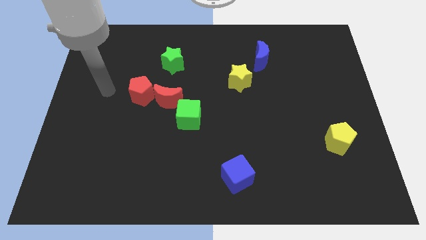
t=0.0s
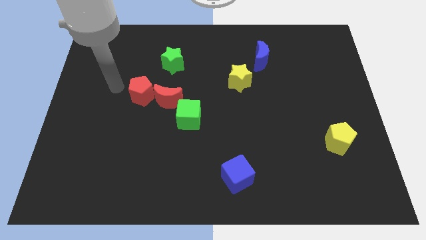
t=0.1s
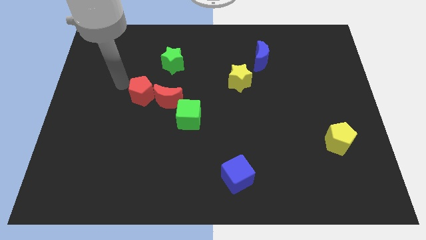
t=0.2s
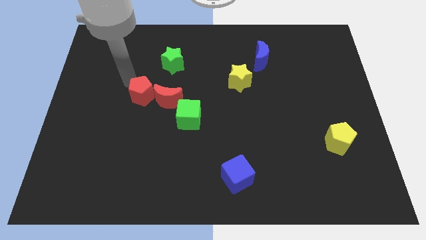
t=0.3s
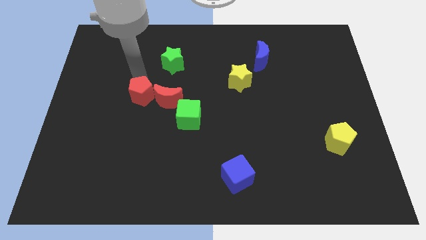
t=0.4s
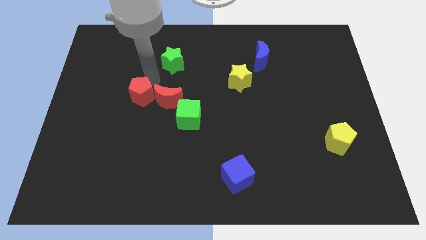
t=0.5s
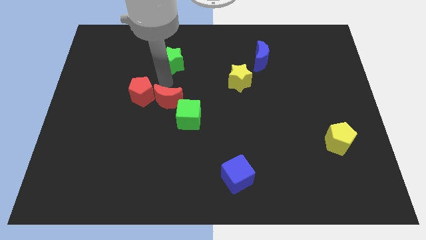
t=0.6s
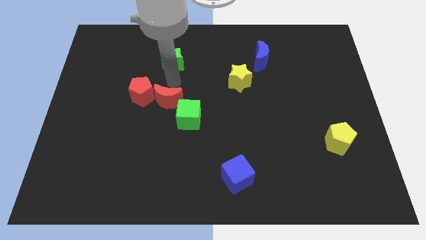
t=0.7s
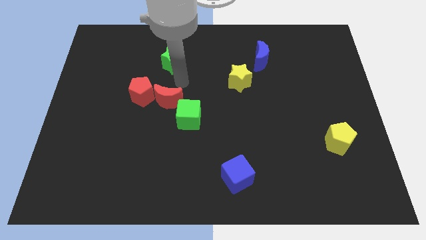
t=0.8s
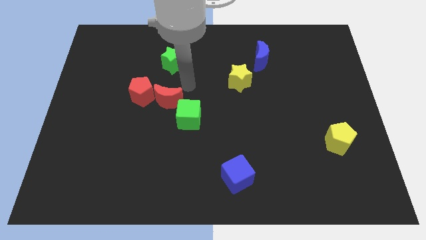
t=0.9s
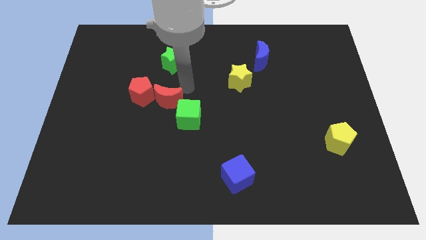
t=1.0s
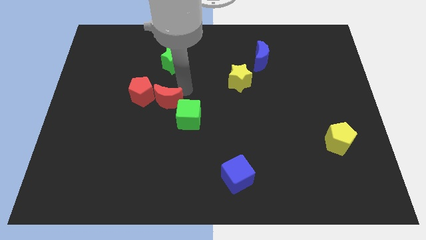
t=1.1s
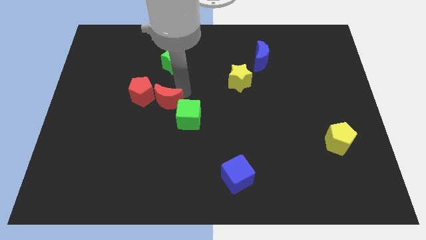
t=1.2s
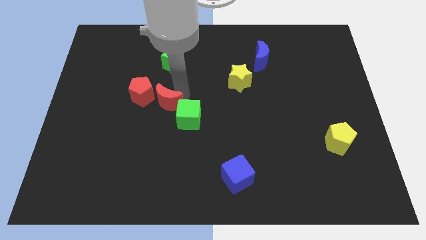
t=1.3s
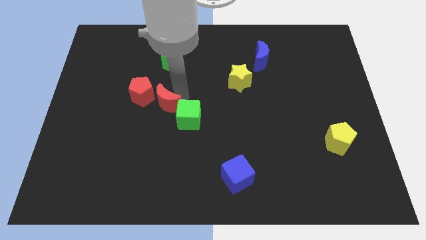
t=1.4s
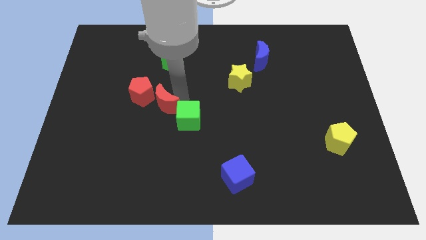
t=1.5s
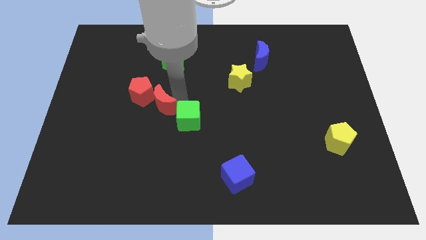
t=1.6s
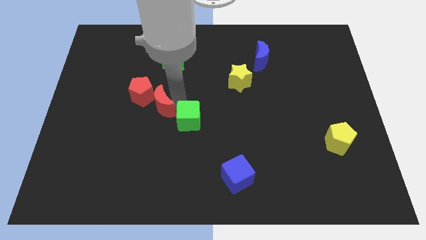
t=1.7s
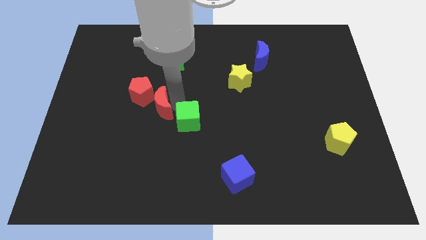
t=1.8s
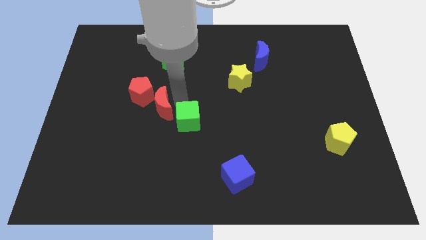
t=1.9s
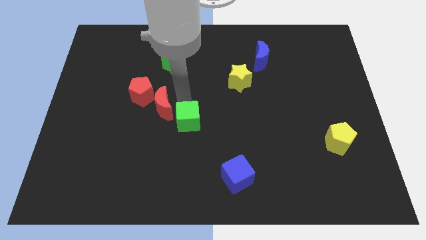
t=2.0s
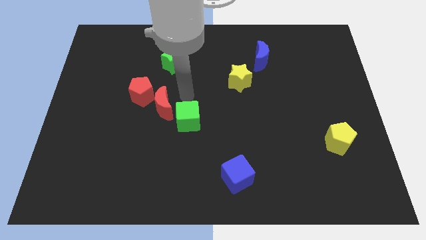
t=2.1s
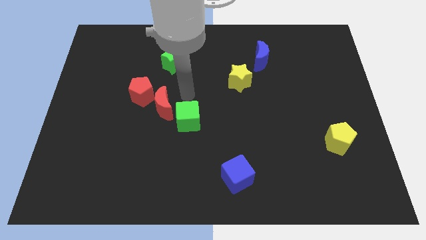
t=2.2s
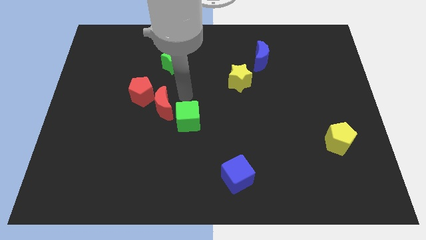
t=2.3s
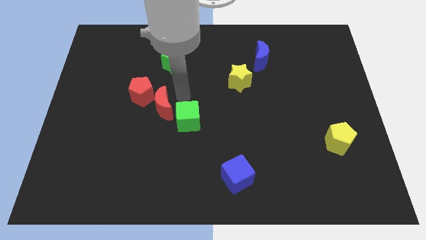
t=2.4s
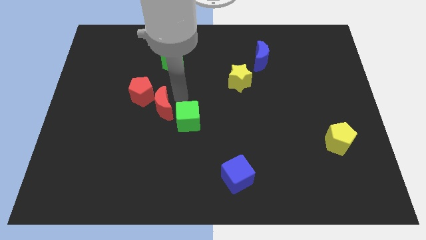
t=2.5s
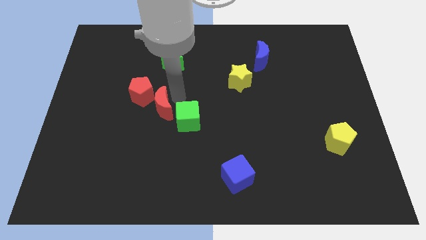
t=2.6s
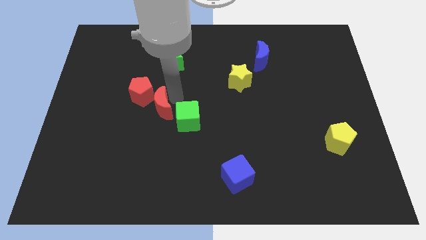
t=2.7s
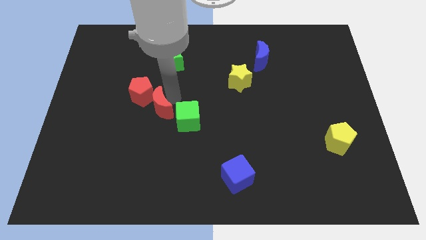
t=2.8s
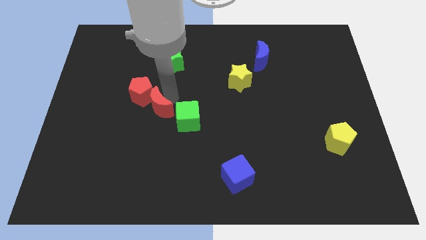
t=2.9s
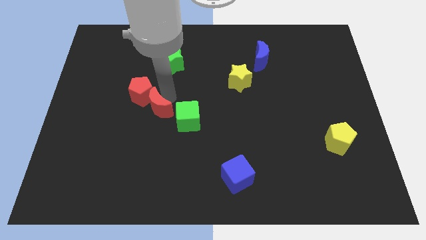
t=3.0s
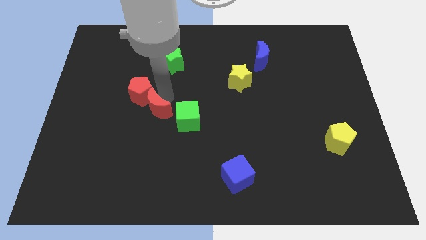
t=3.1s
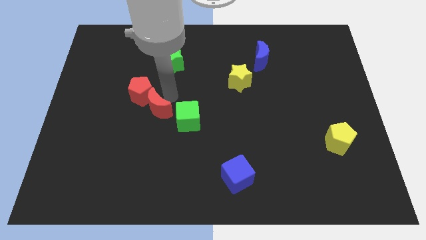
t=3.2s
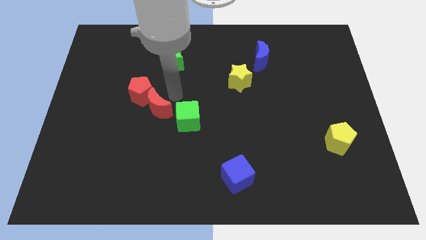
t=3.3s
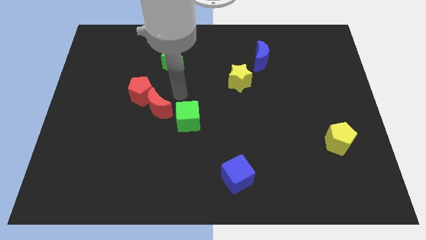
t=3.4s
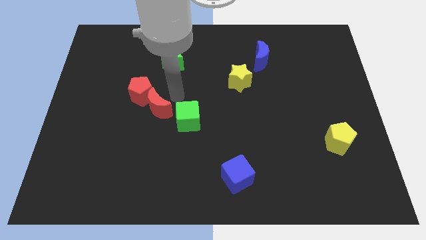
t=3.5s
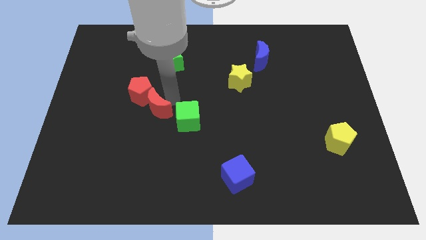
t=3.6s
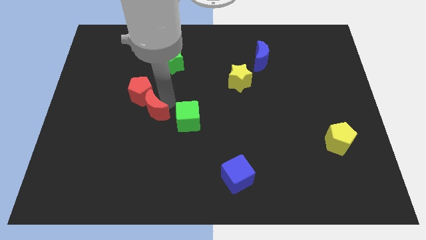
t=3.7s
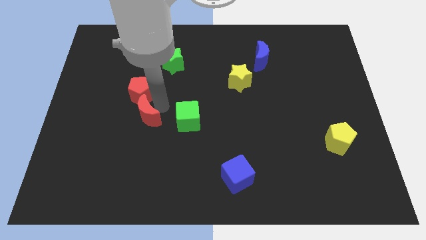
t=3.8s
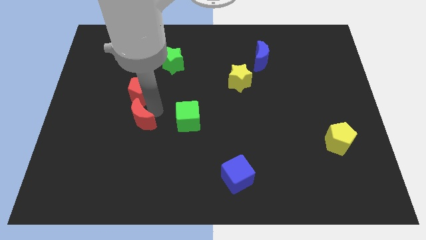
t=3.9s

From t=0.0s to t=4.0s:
slide the red moon diagonally down and to the left slightly

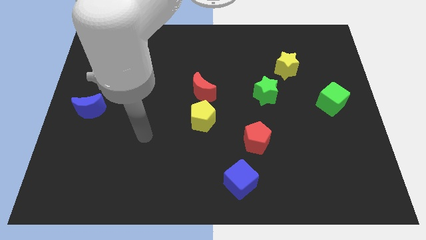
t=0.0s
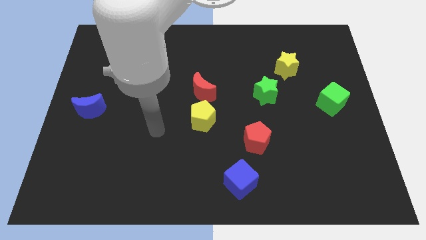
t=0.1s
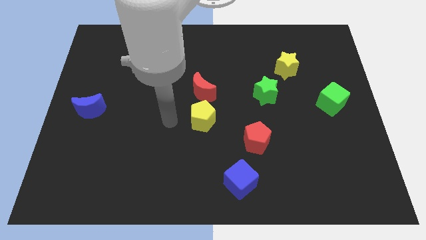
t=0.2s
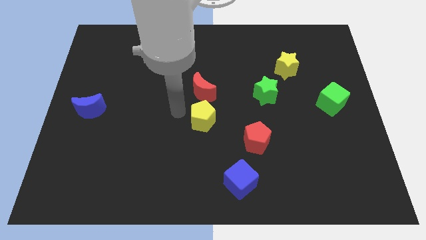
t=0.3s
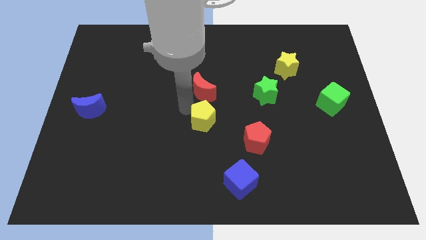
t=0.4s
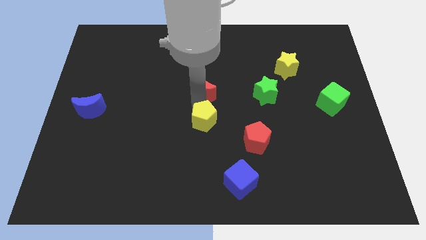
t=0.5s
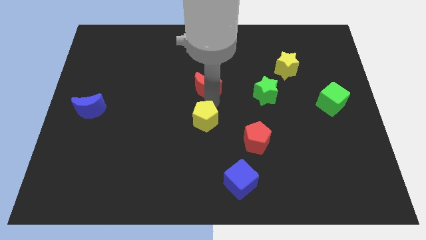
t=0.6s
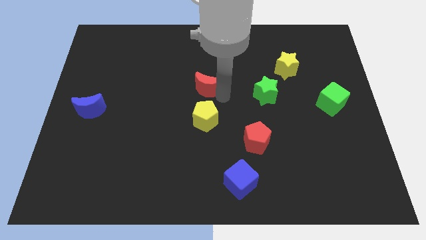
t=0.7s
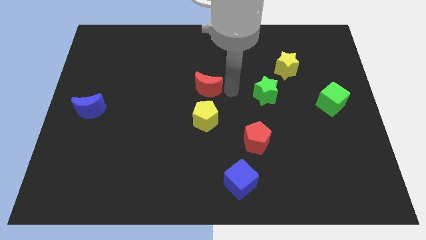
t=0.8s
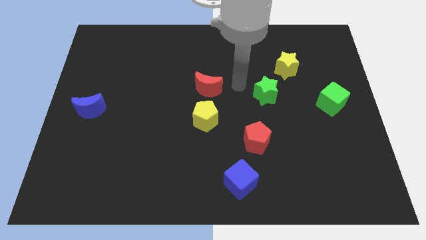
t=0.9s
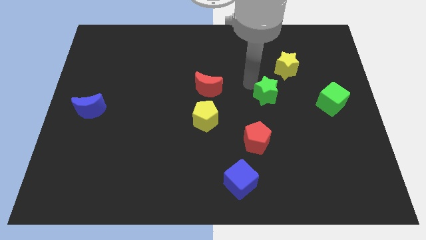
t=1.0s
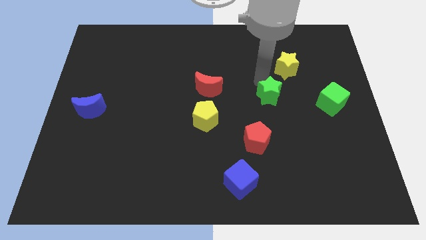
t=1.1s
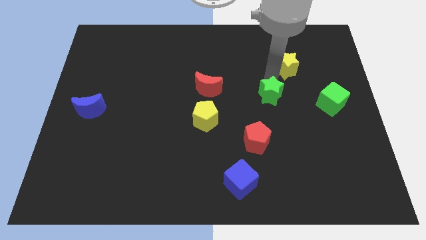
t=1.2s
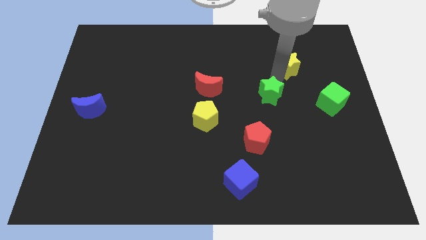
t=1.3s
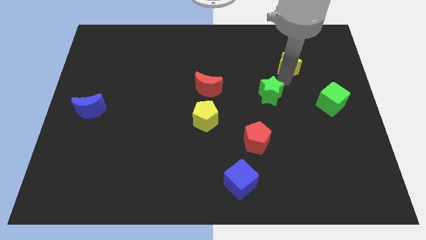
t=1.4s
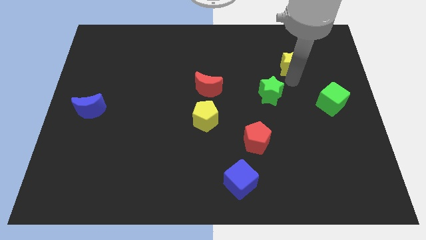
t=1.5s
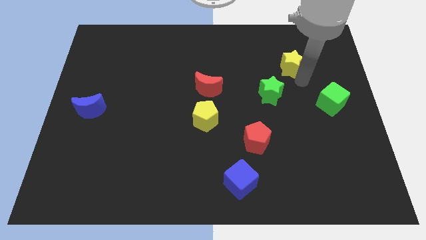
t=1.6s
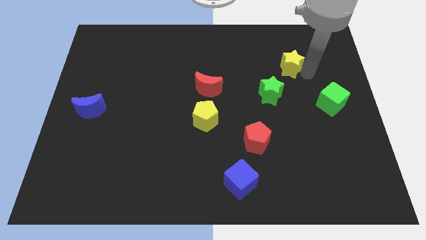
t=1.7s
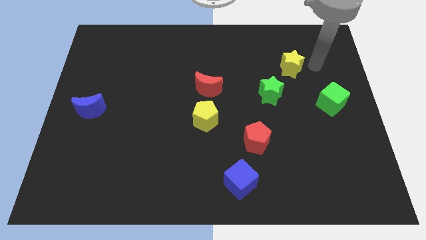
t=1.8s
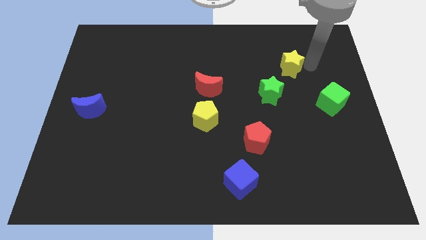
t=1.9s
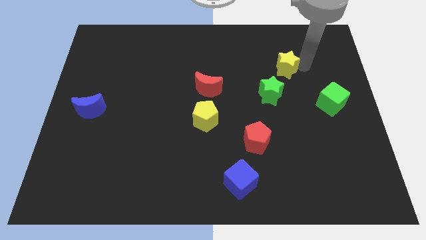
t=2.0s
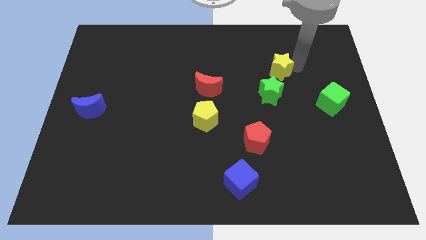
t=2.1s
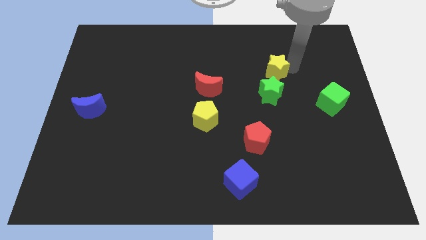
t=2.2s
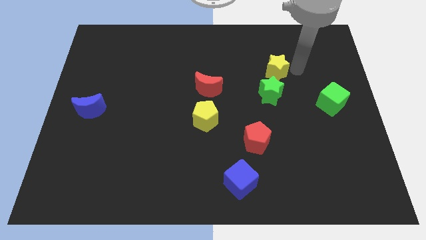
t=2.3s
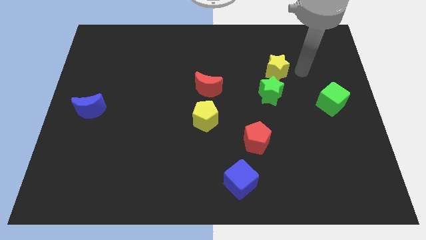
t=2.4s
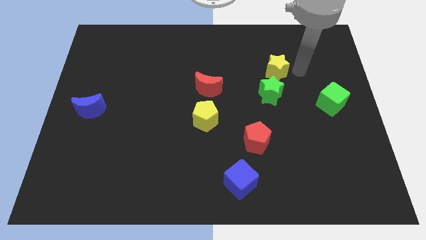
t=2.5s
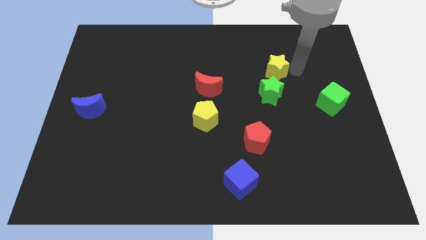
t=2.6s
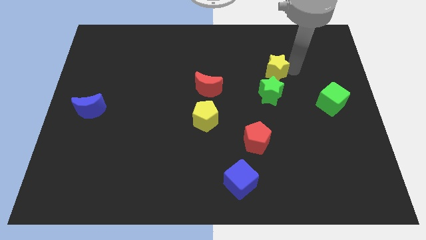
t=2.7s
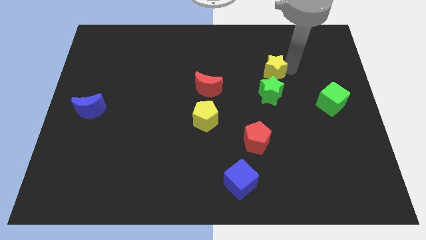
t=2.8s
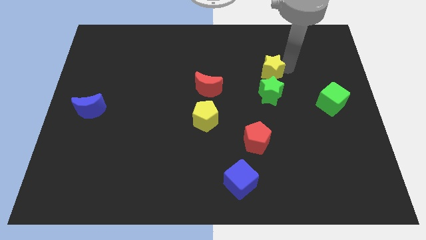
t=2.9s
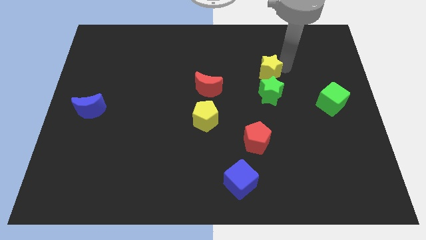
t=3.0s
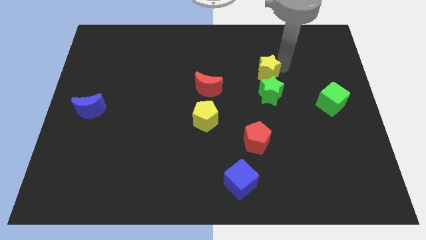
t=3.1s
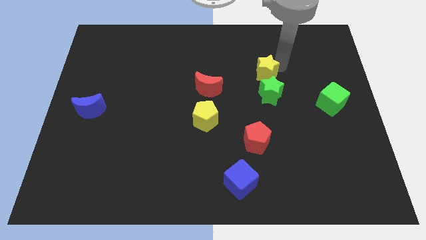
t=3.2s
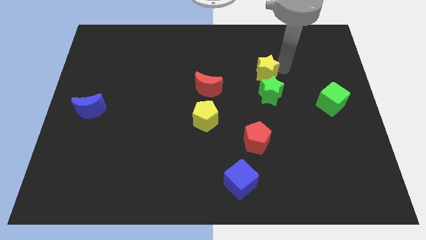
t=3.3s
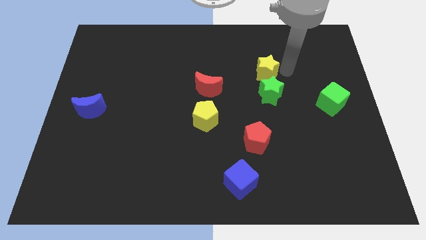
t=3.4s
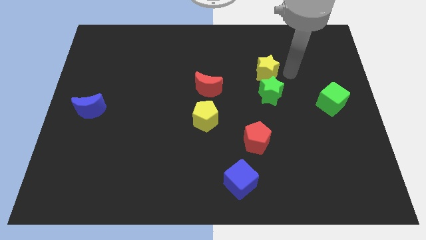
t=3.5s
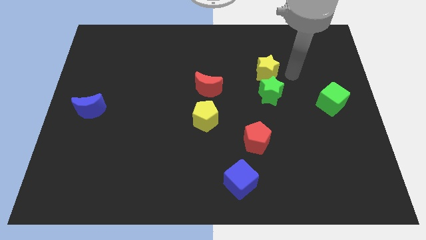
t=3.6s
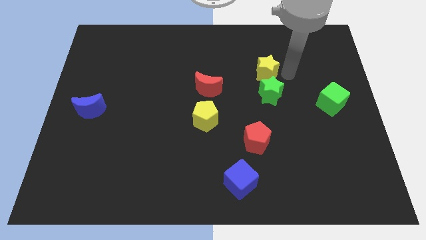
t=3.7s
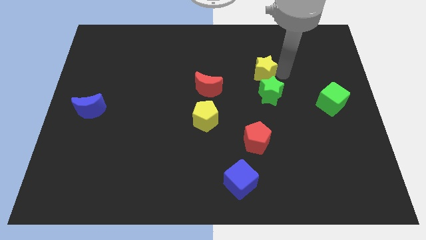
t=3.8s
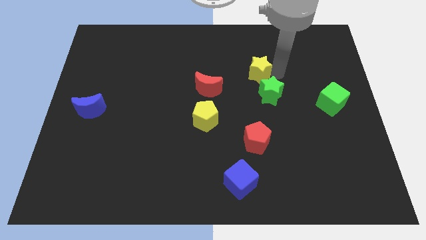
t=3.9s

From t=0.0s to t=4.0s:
move the yellow star to the left a little bit

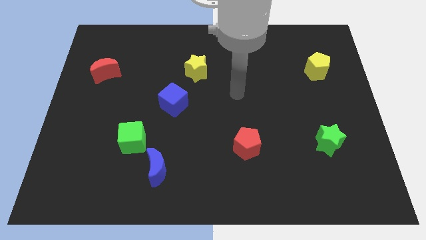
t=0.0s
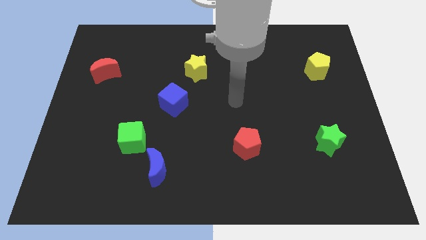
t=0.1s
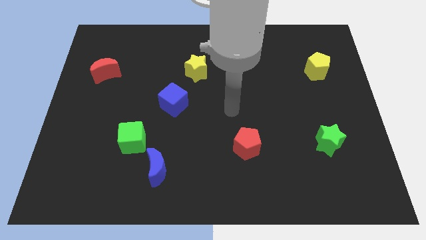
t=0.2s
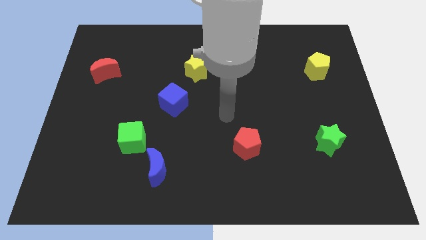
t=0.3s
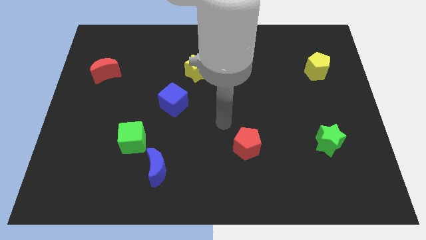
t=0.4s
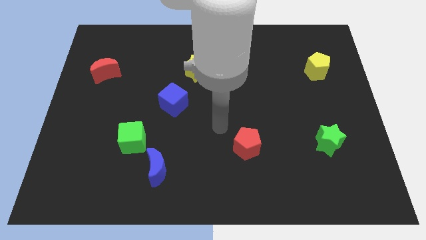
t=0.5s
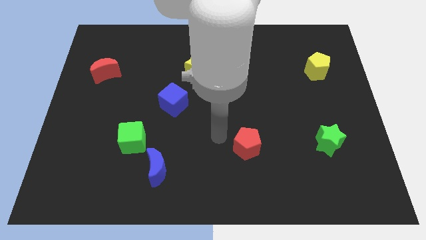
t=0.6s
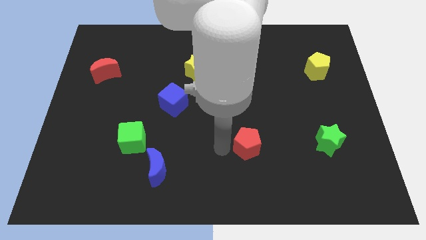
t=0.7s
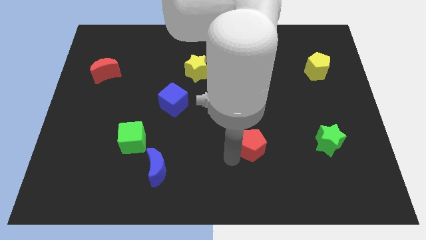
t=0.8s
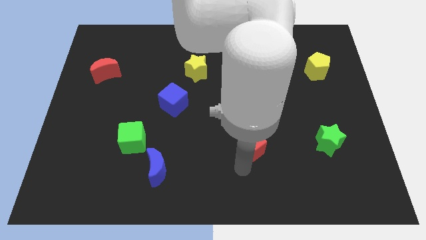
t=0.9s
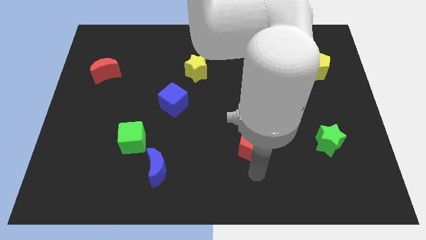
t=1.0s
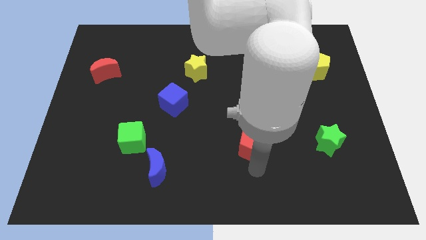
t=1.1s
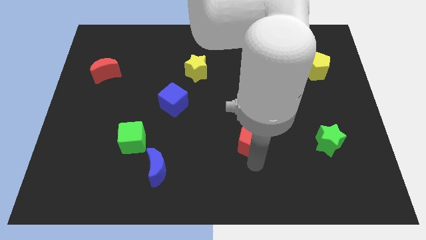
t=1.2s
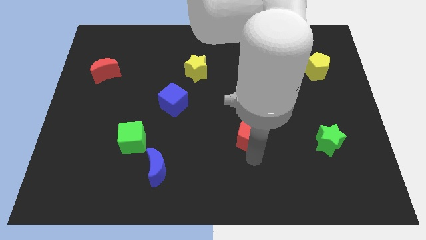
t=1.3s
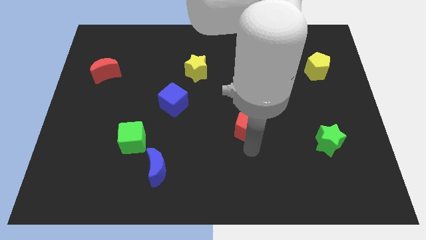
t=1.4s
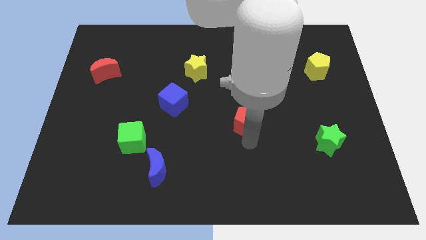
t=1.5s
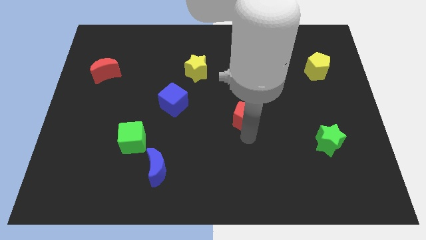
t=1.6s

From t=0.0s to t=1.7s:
push the red pentagon somewhat up
